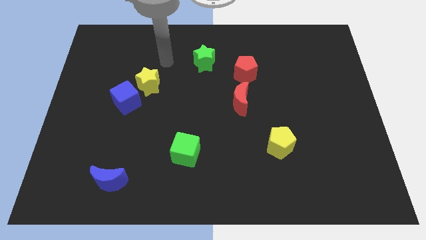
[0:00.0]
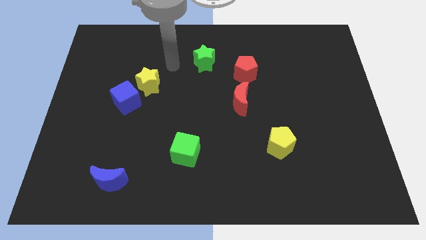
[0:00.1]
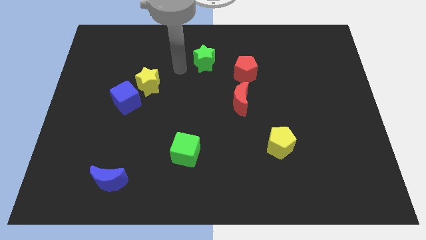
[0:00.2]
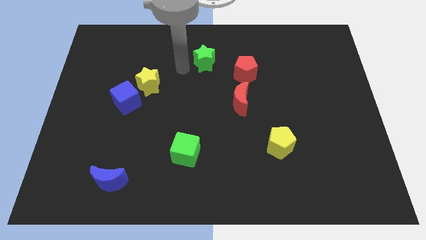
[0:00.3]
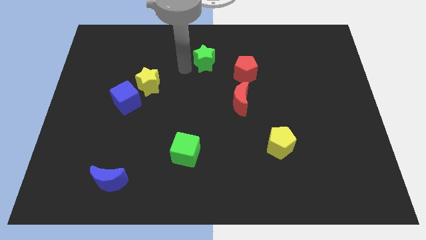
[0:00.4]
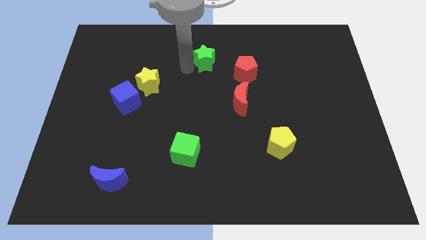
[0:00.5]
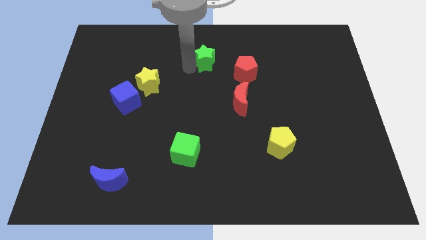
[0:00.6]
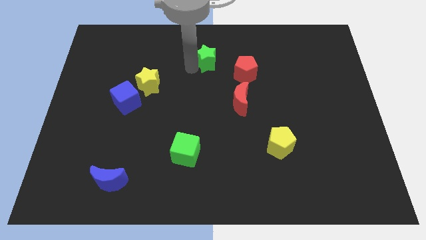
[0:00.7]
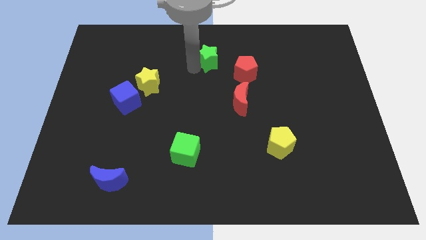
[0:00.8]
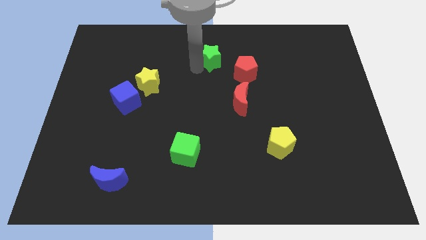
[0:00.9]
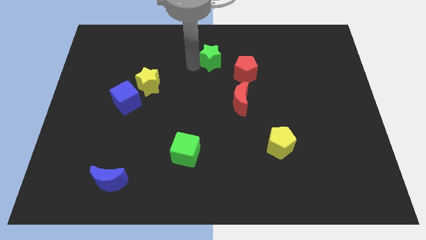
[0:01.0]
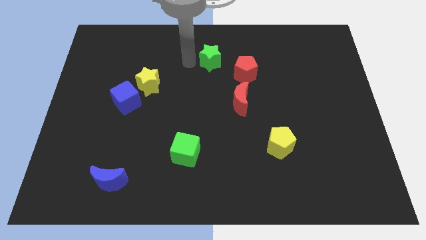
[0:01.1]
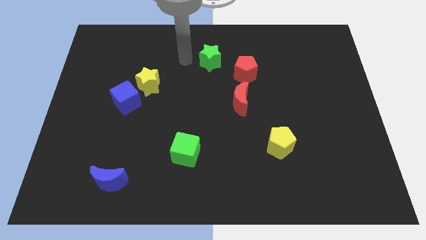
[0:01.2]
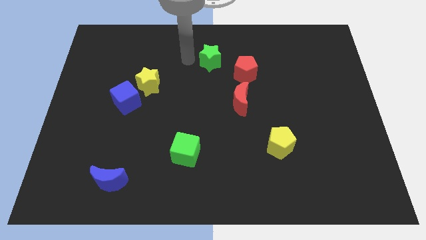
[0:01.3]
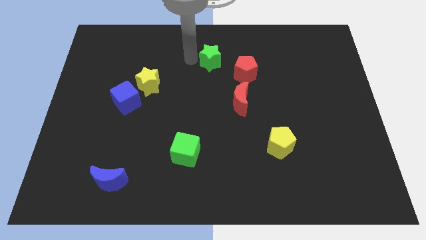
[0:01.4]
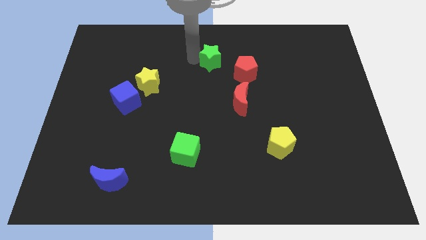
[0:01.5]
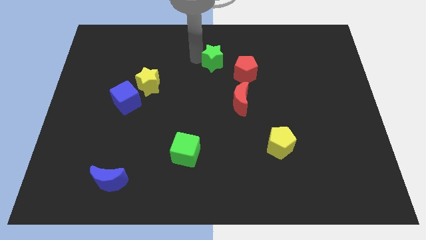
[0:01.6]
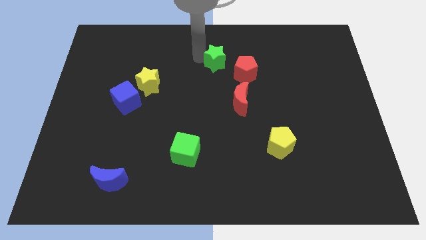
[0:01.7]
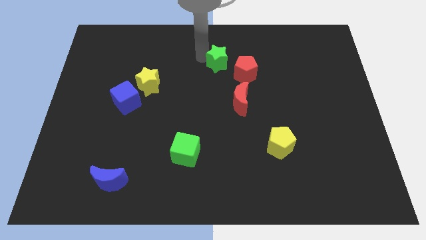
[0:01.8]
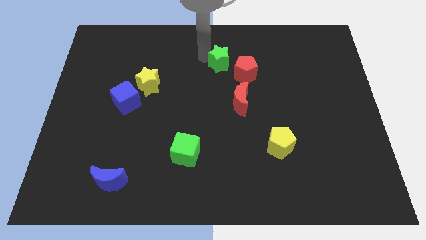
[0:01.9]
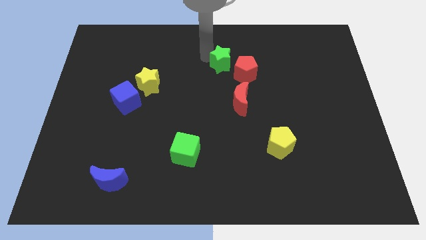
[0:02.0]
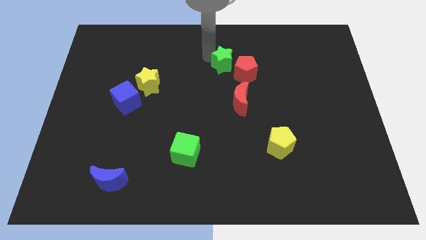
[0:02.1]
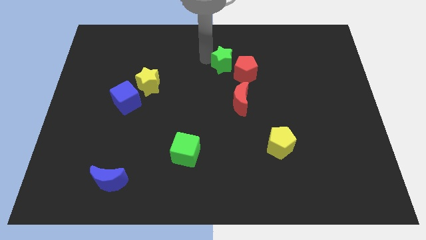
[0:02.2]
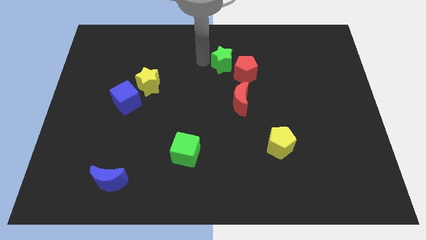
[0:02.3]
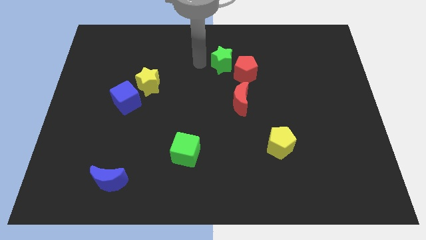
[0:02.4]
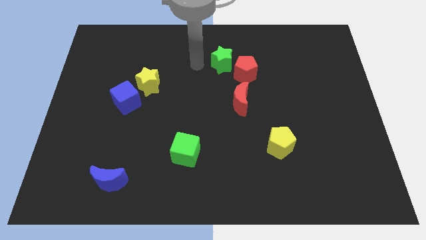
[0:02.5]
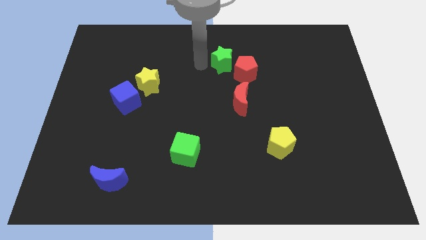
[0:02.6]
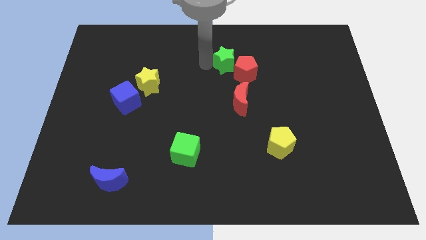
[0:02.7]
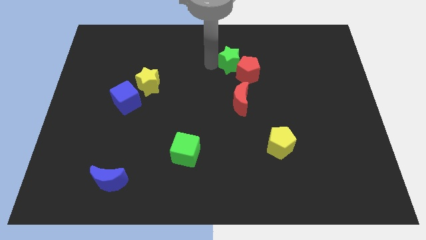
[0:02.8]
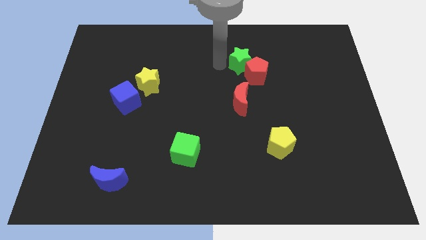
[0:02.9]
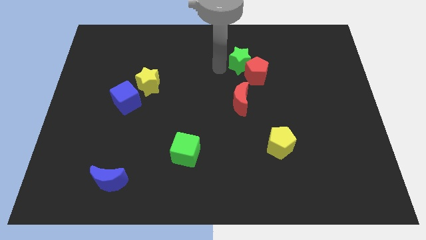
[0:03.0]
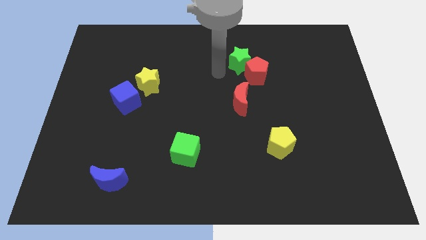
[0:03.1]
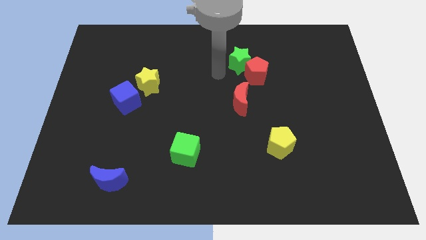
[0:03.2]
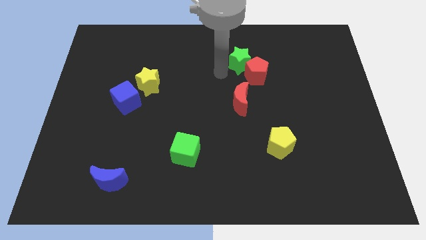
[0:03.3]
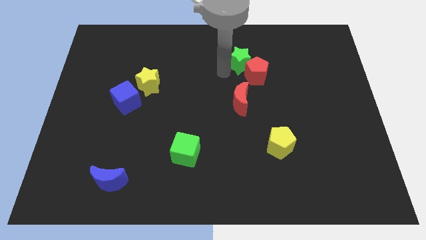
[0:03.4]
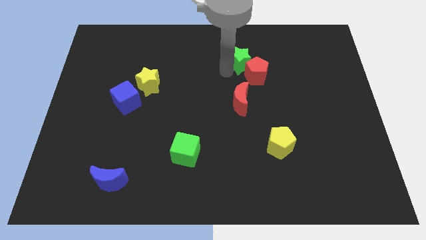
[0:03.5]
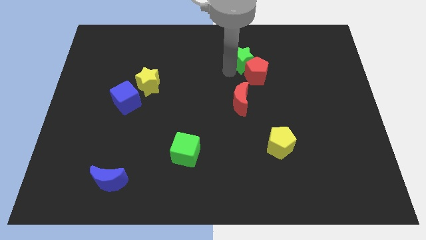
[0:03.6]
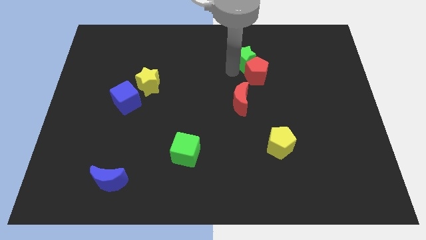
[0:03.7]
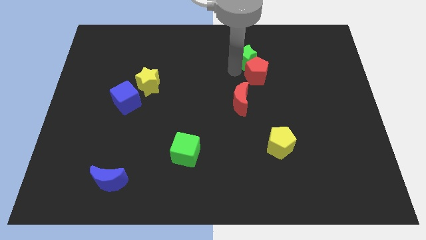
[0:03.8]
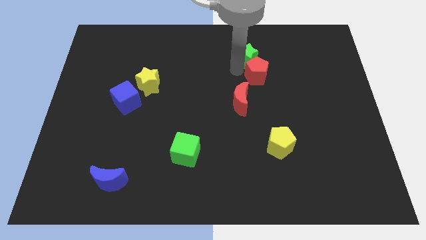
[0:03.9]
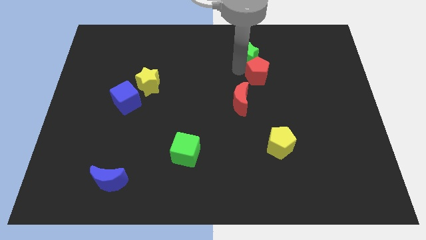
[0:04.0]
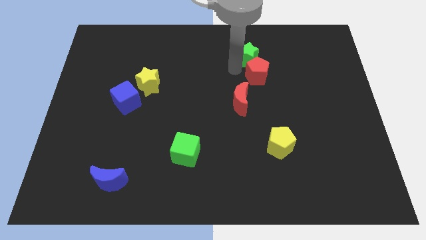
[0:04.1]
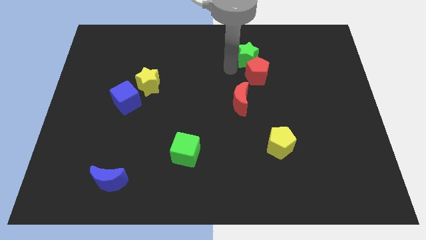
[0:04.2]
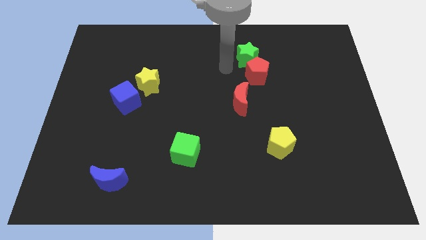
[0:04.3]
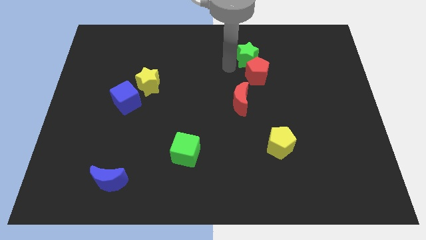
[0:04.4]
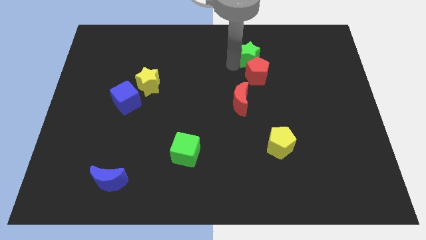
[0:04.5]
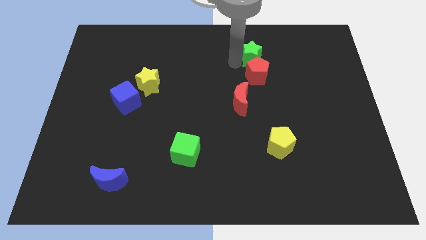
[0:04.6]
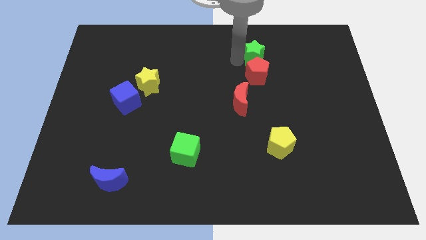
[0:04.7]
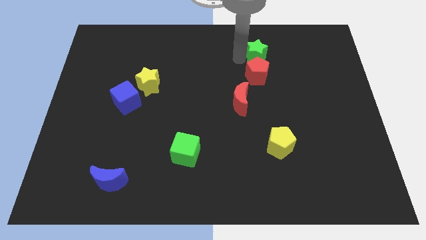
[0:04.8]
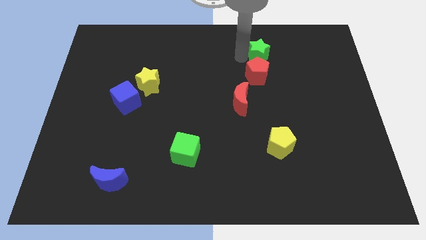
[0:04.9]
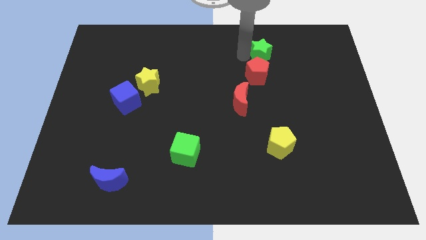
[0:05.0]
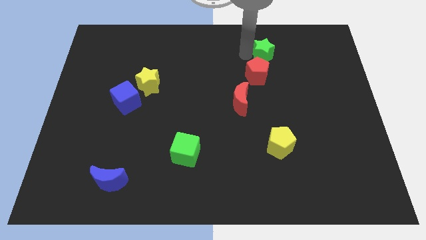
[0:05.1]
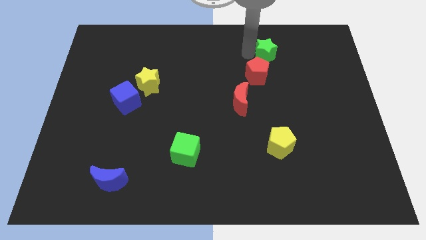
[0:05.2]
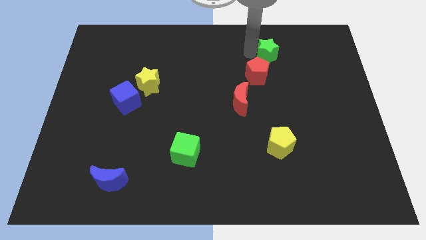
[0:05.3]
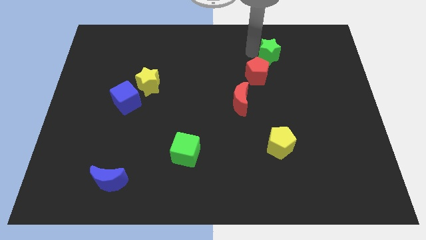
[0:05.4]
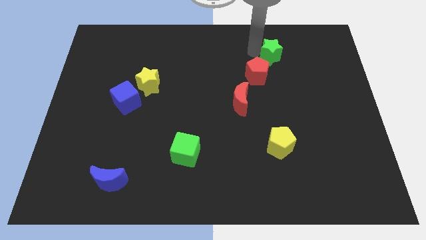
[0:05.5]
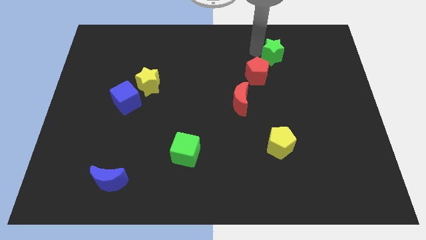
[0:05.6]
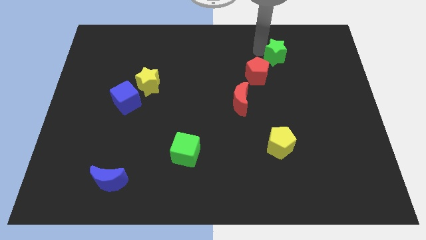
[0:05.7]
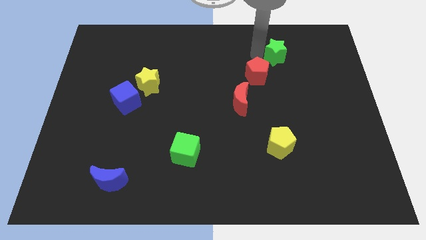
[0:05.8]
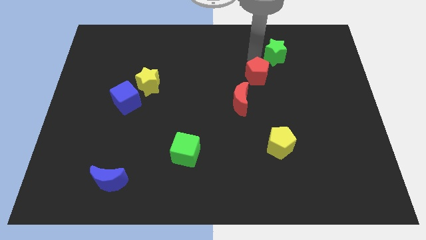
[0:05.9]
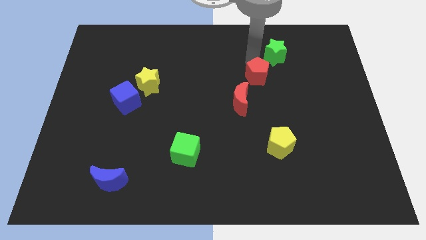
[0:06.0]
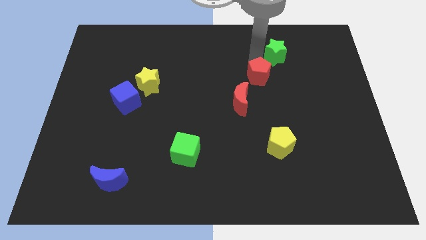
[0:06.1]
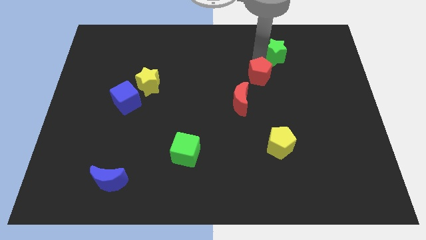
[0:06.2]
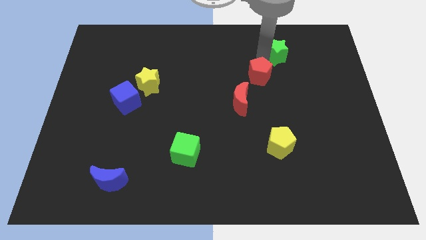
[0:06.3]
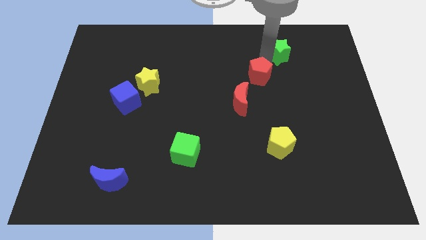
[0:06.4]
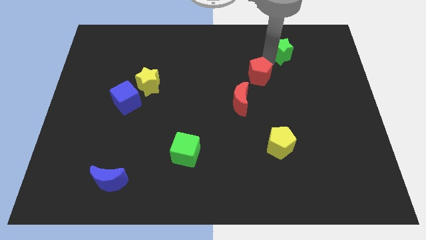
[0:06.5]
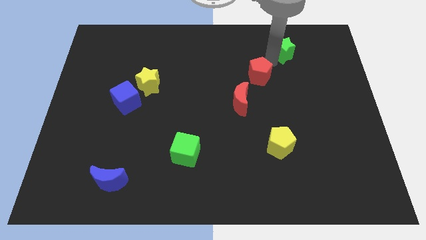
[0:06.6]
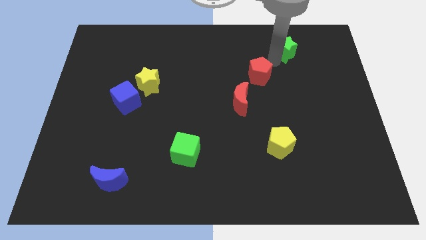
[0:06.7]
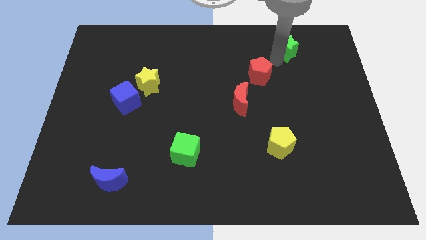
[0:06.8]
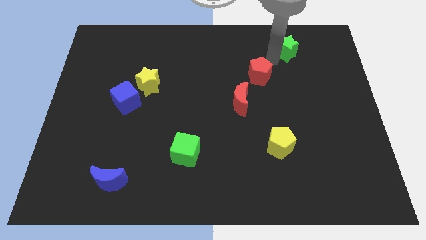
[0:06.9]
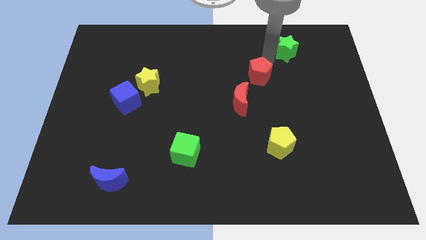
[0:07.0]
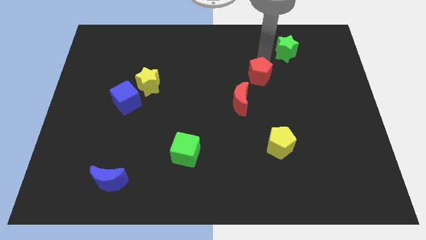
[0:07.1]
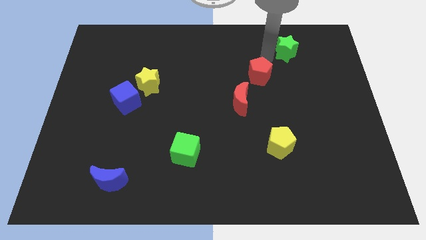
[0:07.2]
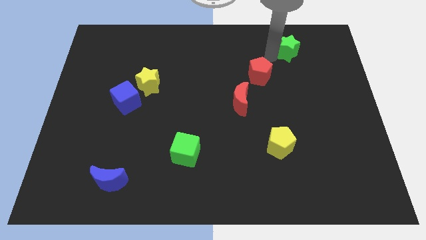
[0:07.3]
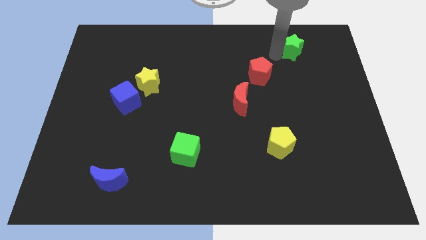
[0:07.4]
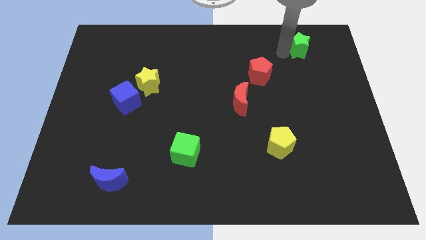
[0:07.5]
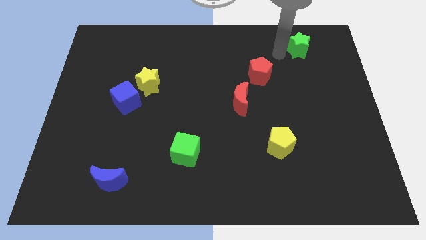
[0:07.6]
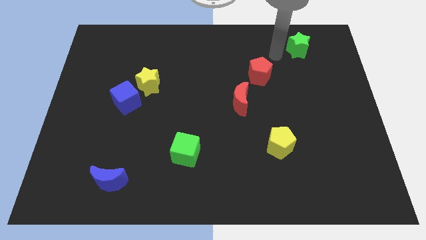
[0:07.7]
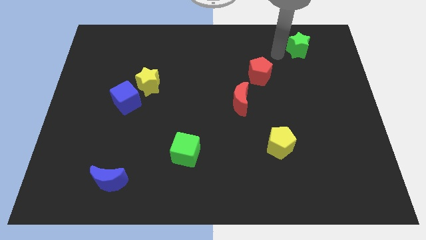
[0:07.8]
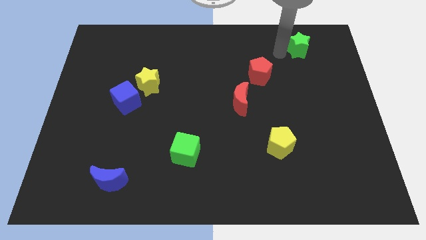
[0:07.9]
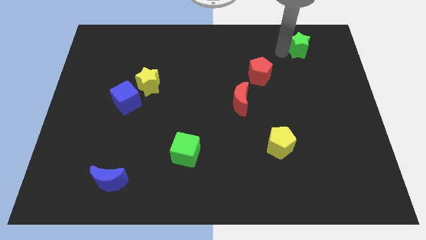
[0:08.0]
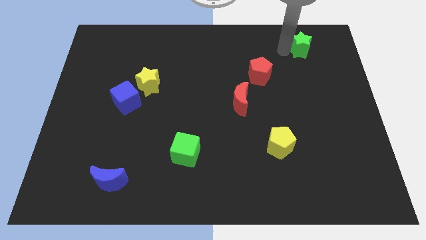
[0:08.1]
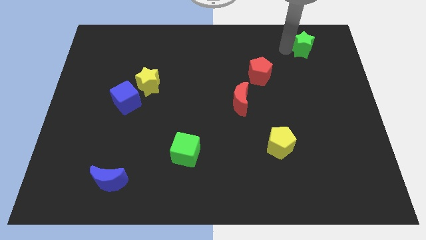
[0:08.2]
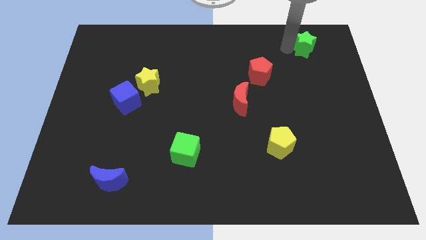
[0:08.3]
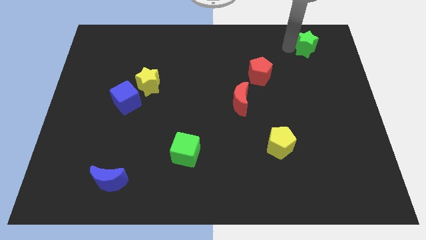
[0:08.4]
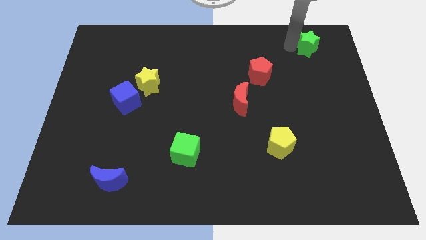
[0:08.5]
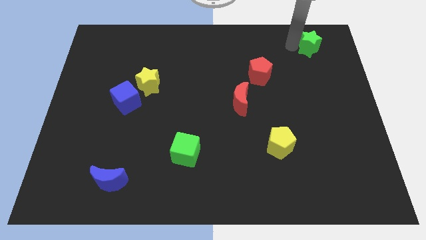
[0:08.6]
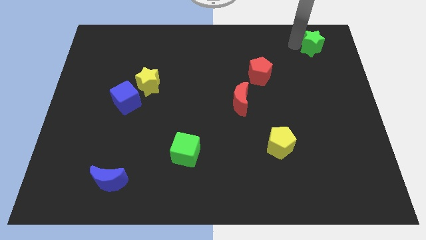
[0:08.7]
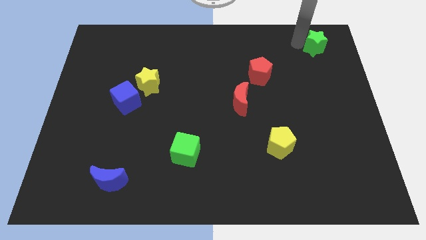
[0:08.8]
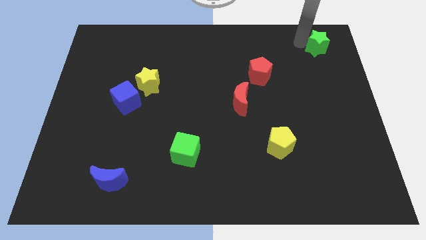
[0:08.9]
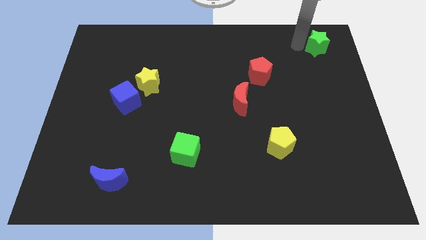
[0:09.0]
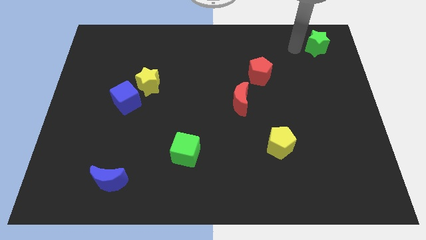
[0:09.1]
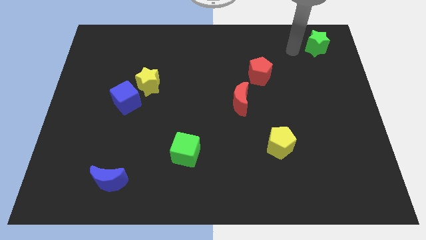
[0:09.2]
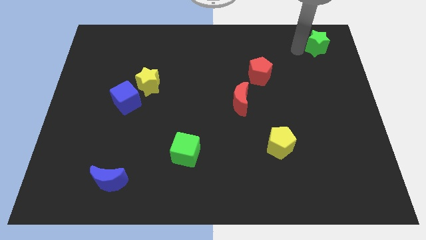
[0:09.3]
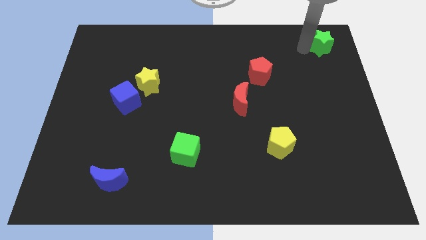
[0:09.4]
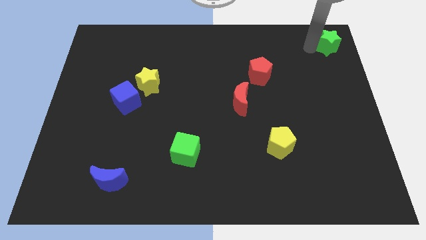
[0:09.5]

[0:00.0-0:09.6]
move the green star to the upper right corner
